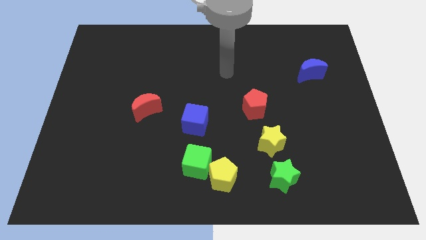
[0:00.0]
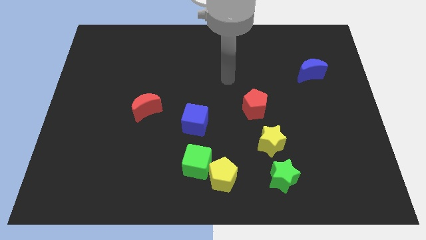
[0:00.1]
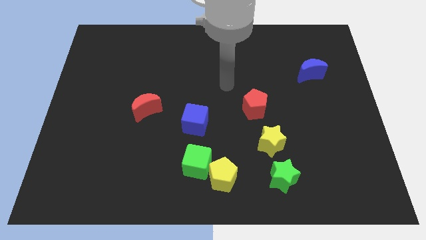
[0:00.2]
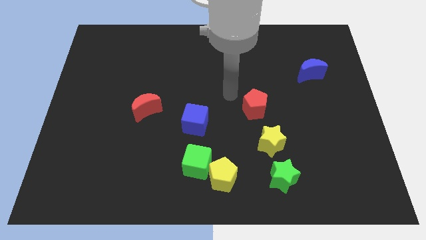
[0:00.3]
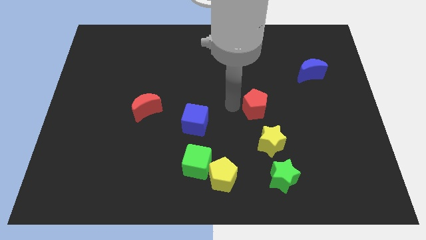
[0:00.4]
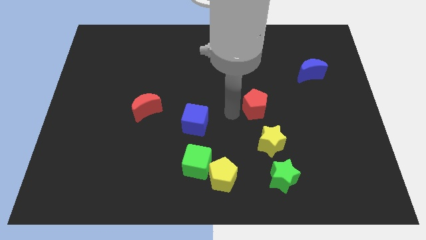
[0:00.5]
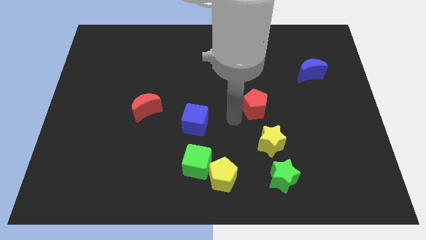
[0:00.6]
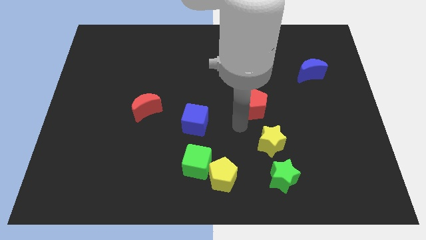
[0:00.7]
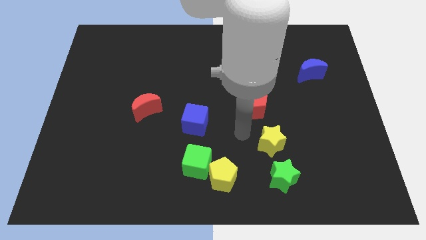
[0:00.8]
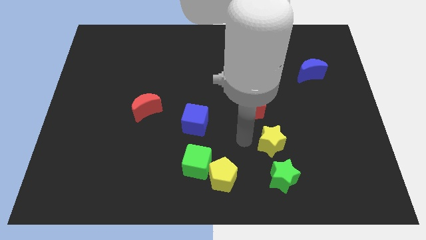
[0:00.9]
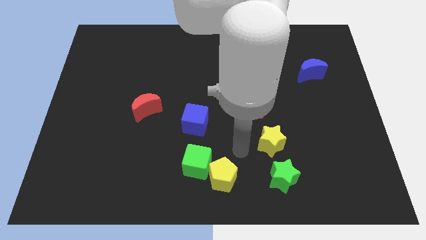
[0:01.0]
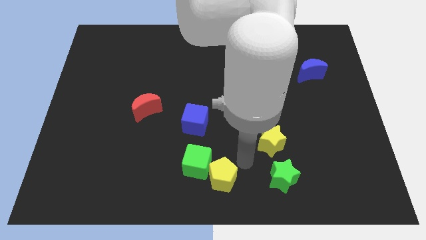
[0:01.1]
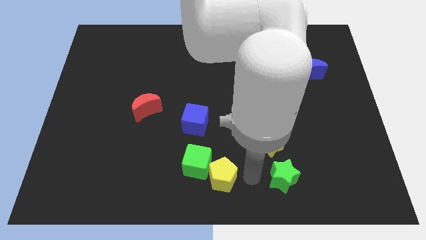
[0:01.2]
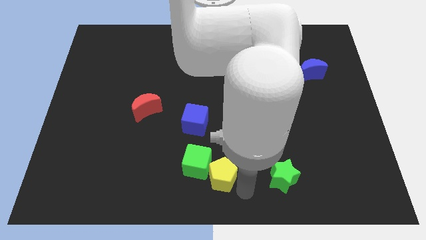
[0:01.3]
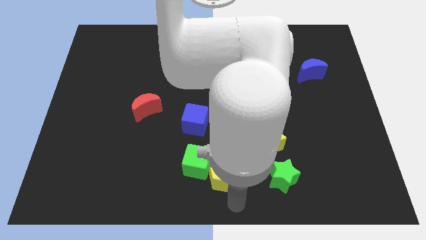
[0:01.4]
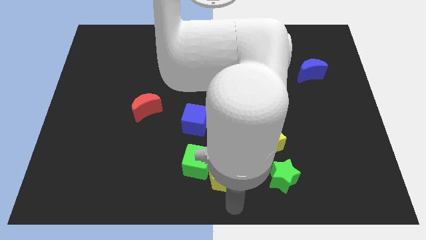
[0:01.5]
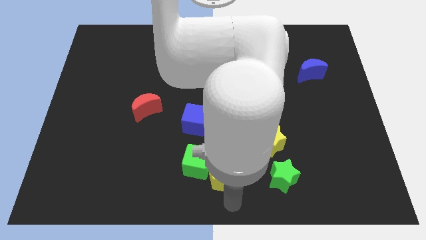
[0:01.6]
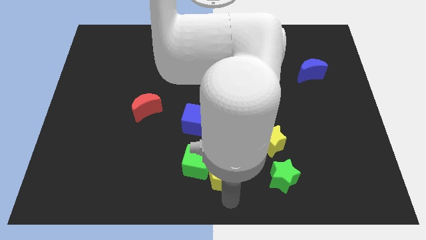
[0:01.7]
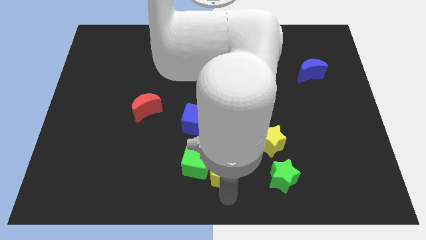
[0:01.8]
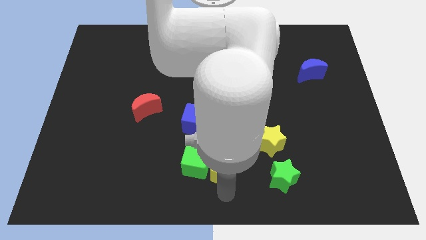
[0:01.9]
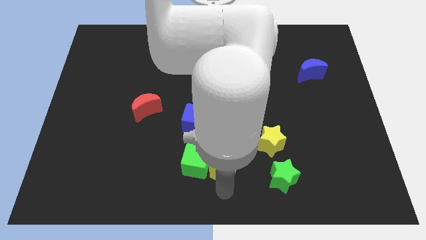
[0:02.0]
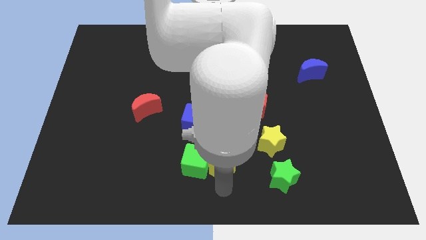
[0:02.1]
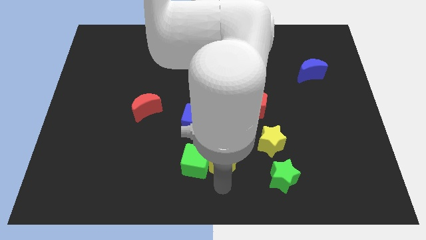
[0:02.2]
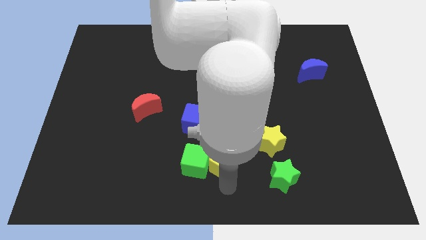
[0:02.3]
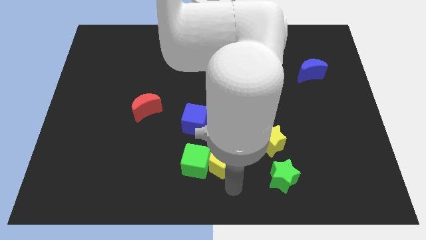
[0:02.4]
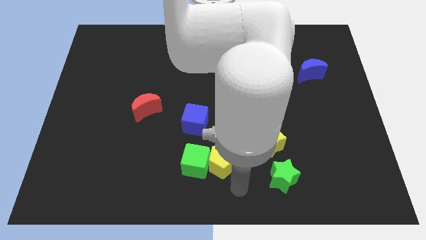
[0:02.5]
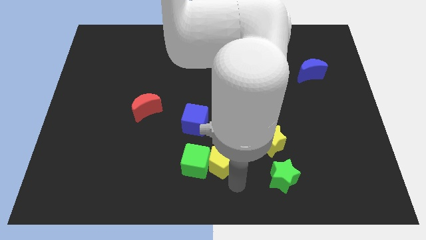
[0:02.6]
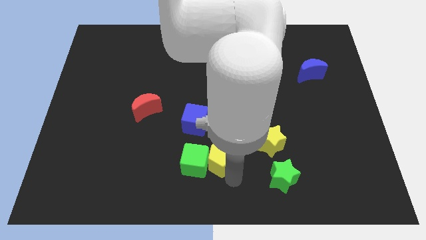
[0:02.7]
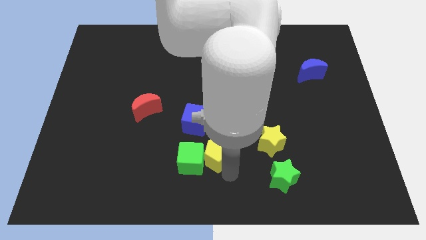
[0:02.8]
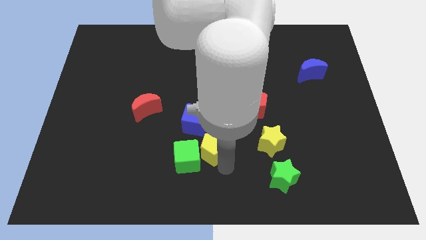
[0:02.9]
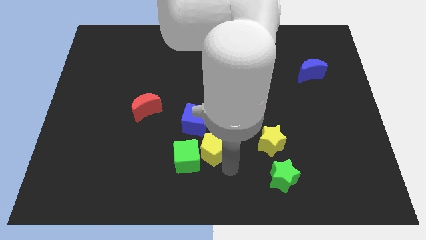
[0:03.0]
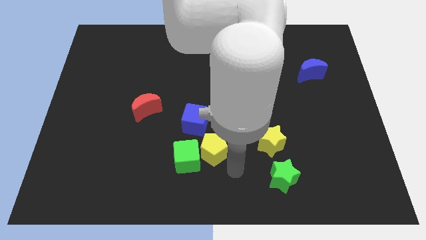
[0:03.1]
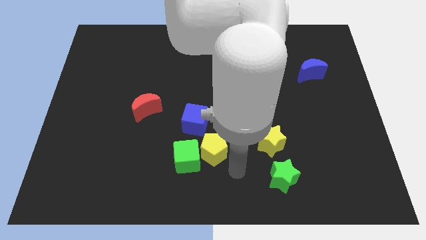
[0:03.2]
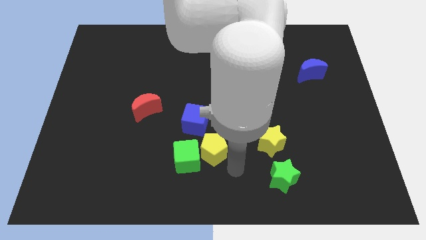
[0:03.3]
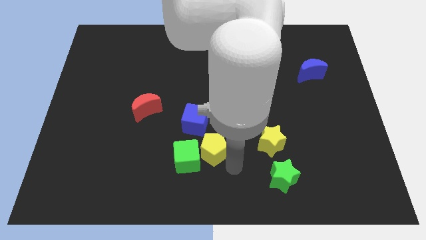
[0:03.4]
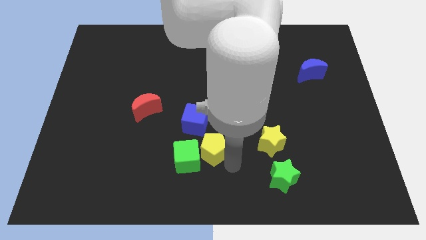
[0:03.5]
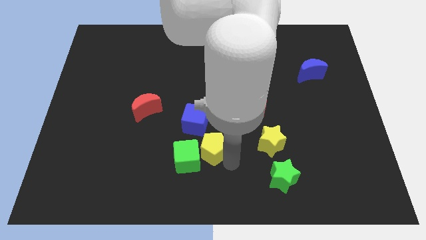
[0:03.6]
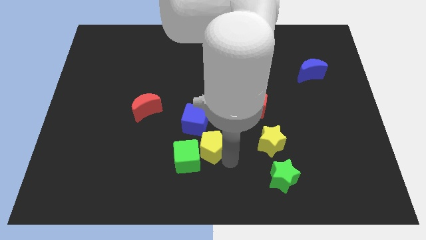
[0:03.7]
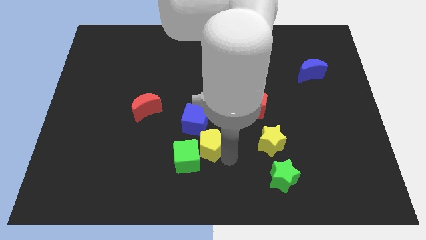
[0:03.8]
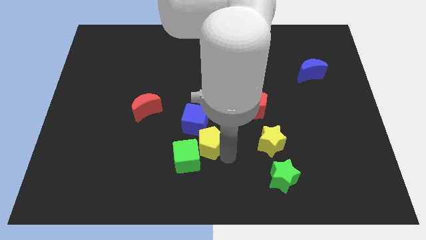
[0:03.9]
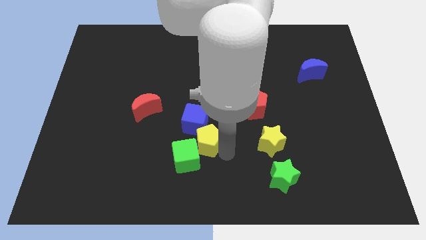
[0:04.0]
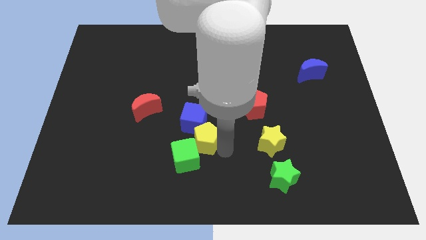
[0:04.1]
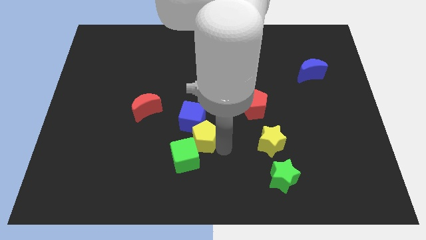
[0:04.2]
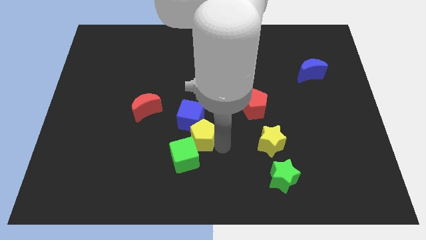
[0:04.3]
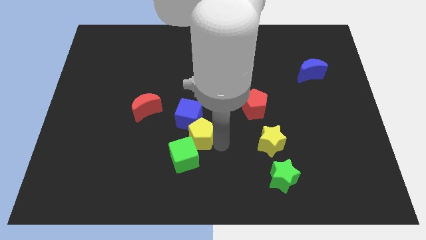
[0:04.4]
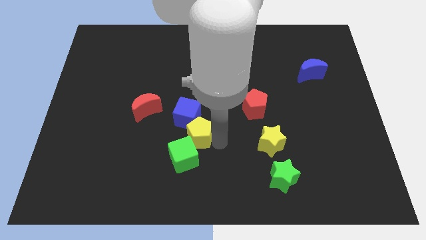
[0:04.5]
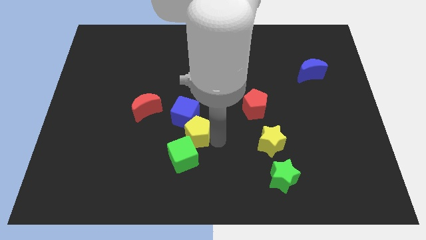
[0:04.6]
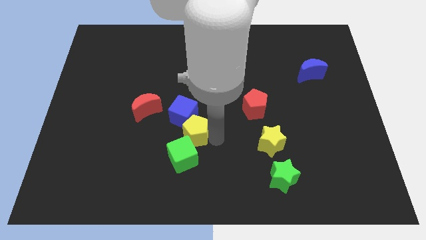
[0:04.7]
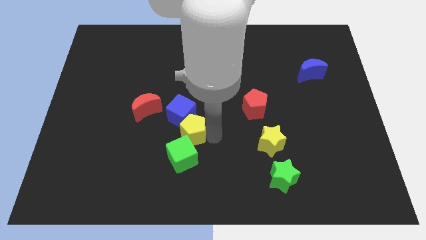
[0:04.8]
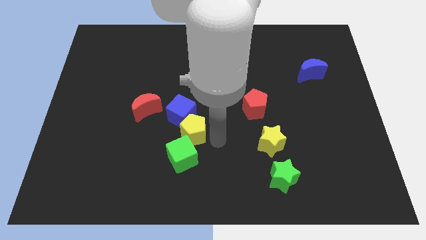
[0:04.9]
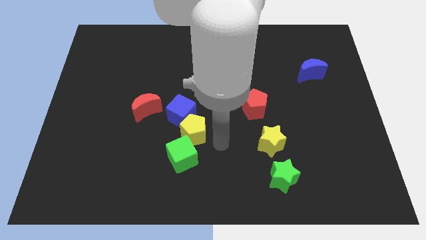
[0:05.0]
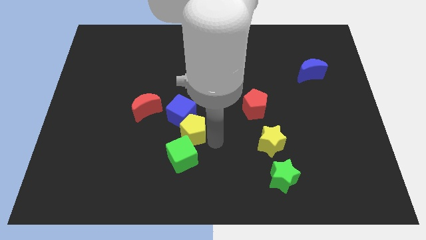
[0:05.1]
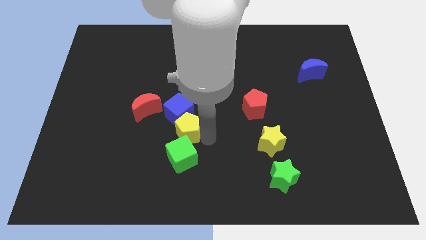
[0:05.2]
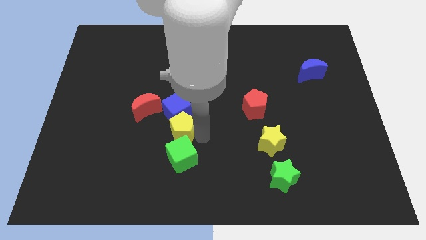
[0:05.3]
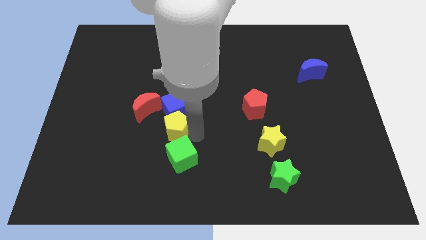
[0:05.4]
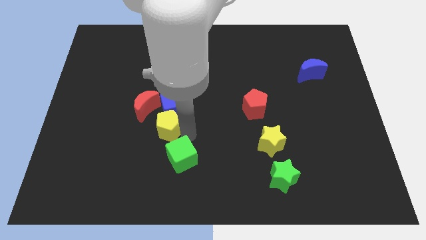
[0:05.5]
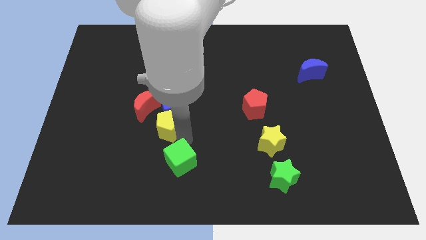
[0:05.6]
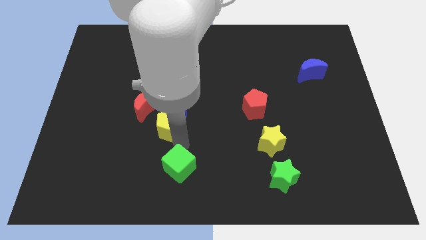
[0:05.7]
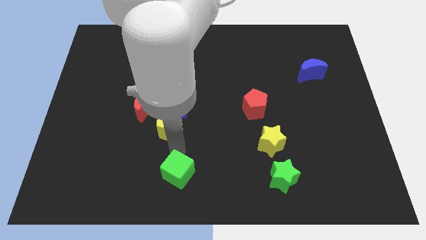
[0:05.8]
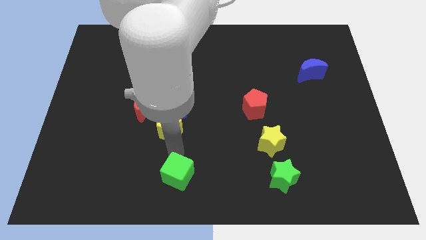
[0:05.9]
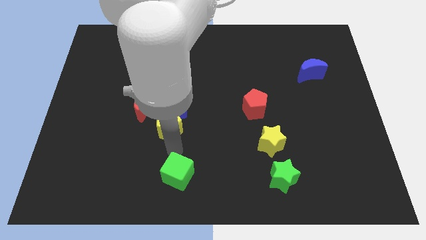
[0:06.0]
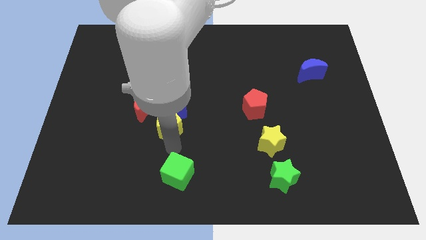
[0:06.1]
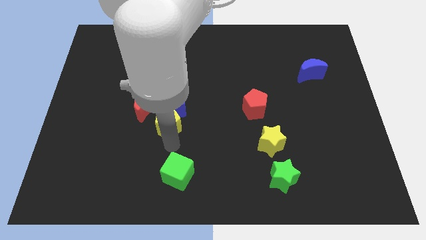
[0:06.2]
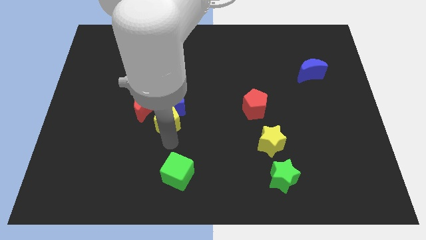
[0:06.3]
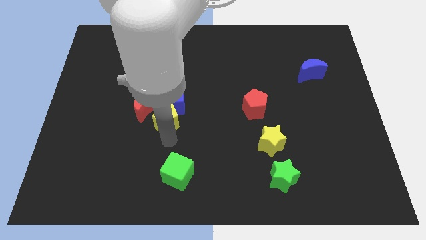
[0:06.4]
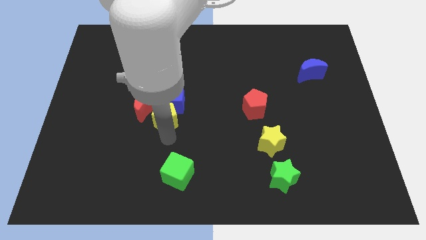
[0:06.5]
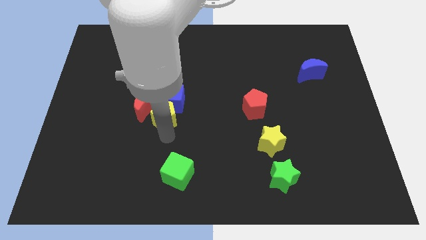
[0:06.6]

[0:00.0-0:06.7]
push the yellow pentagon up and then to the left

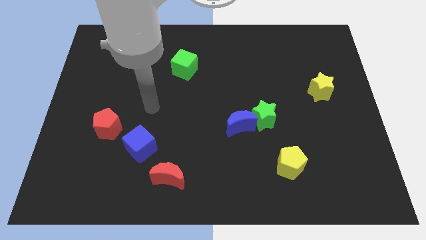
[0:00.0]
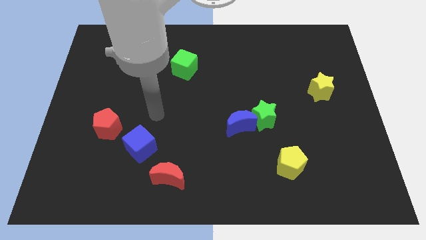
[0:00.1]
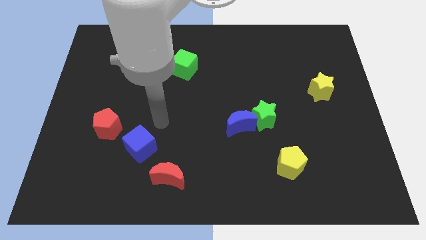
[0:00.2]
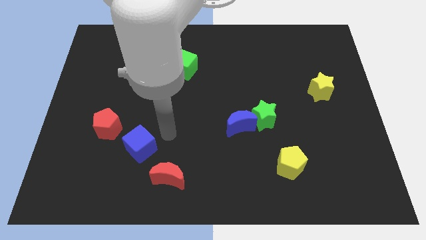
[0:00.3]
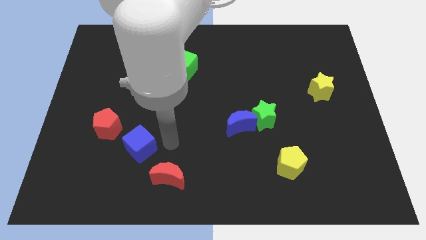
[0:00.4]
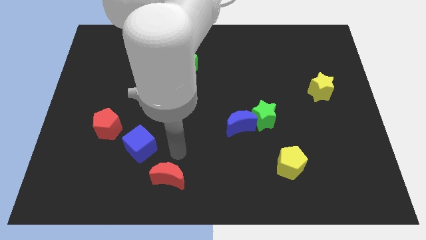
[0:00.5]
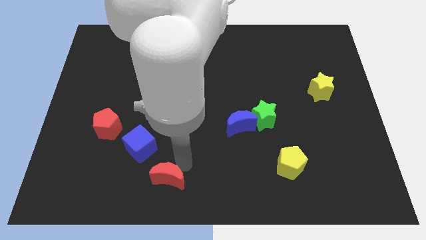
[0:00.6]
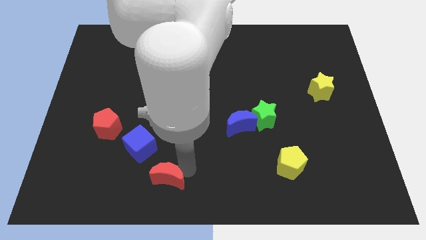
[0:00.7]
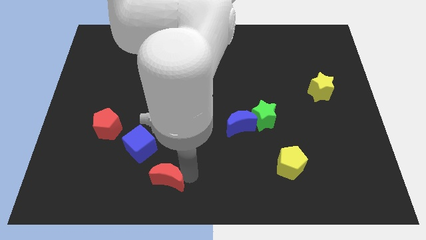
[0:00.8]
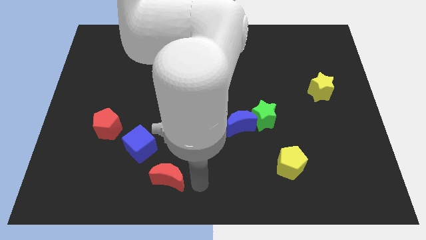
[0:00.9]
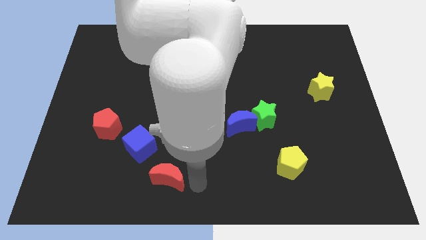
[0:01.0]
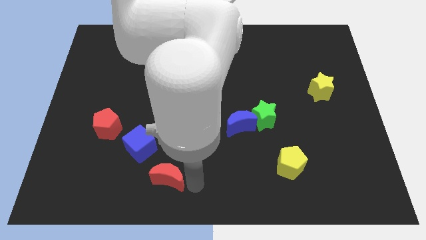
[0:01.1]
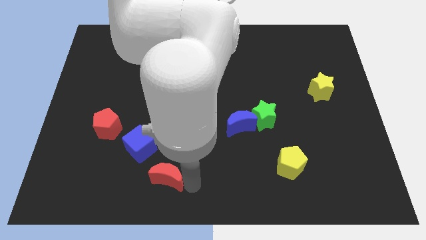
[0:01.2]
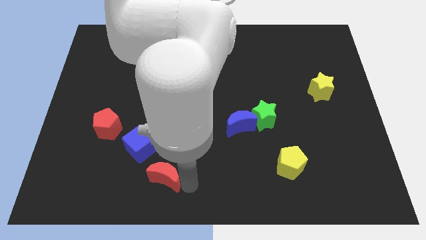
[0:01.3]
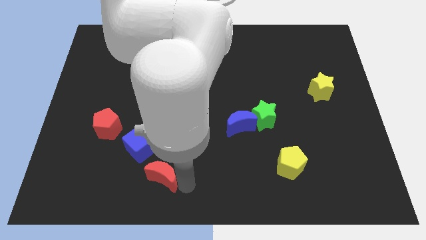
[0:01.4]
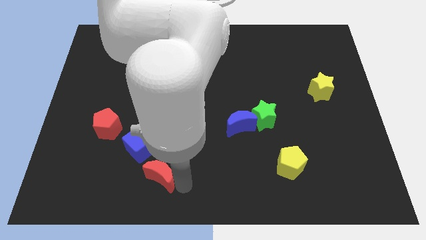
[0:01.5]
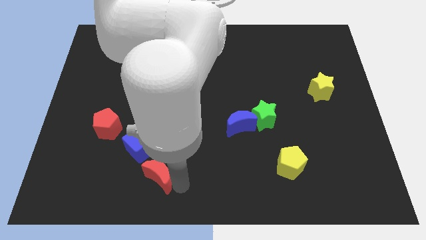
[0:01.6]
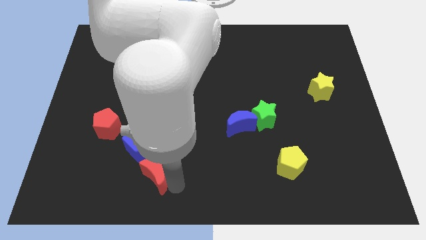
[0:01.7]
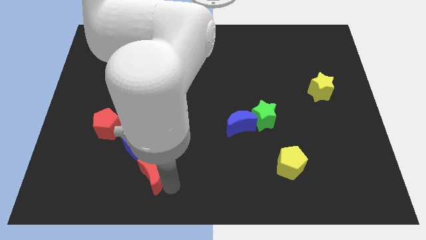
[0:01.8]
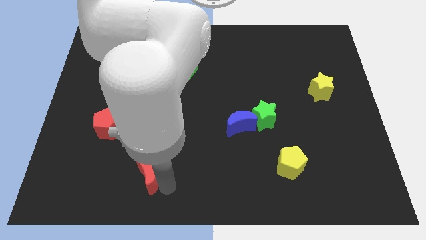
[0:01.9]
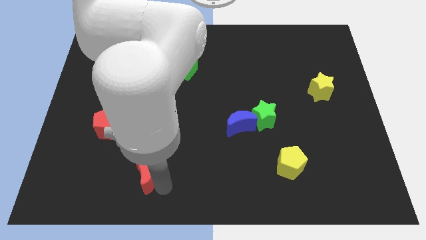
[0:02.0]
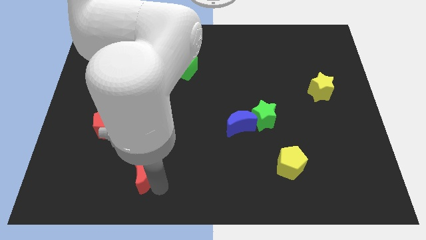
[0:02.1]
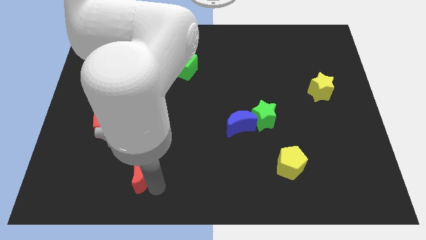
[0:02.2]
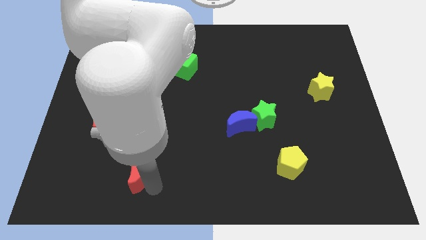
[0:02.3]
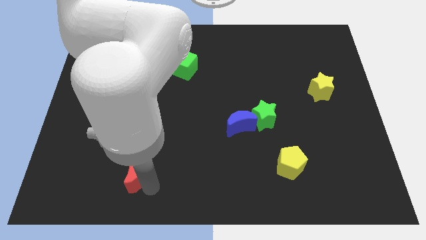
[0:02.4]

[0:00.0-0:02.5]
slightly slide the red moon left
